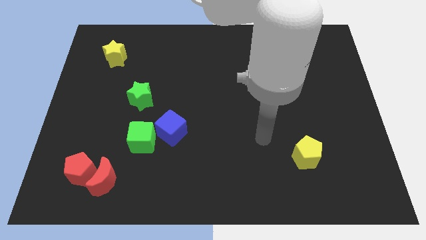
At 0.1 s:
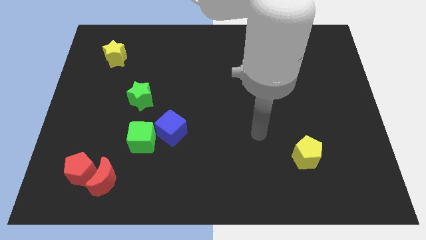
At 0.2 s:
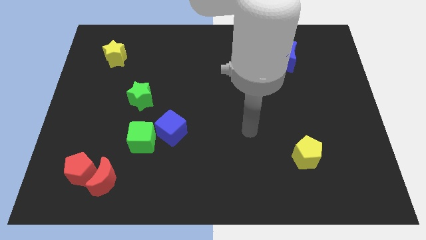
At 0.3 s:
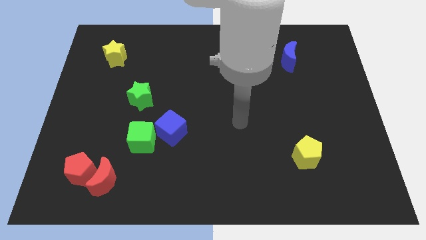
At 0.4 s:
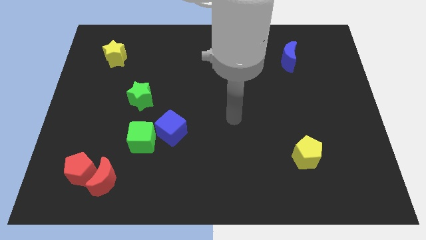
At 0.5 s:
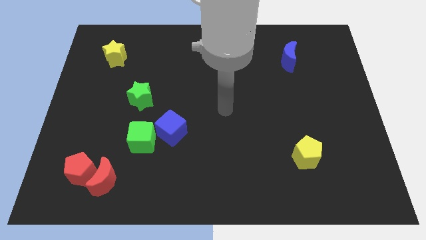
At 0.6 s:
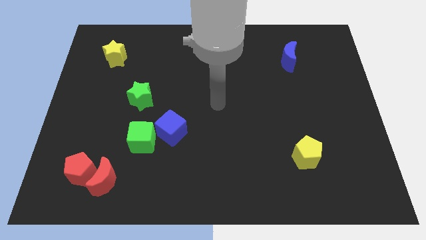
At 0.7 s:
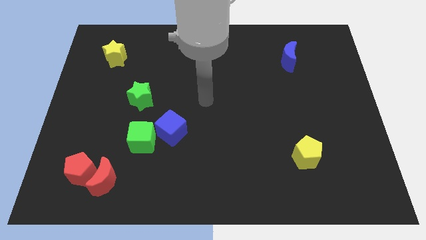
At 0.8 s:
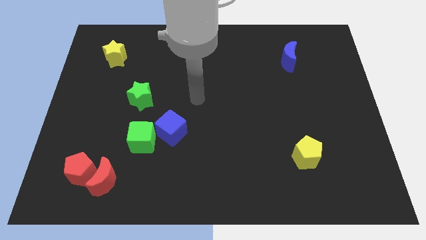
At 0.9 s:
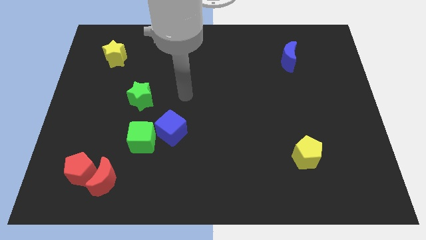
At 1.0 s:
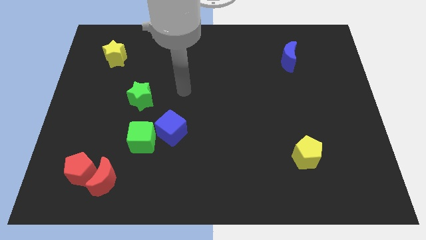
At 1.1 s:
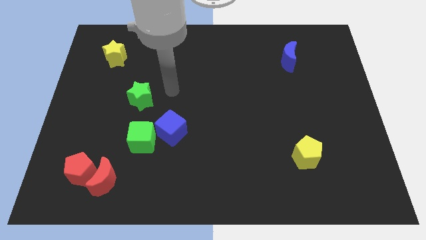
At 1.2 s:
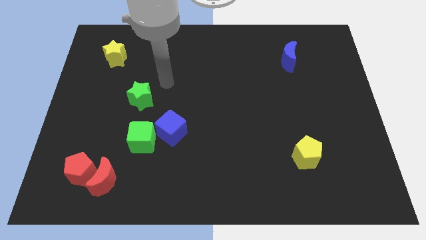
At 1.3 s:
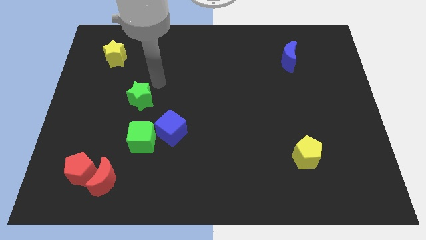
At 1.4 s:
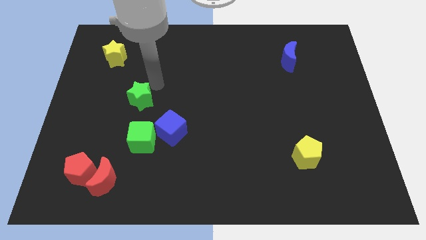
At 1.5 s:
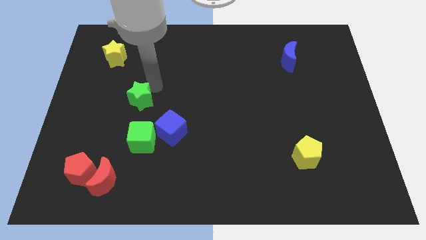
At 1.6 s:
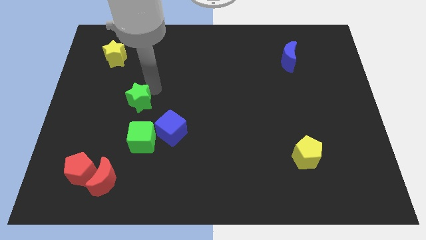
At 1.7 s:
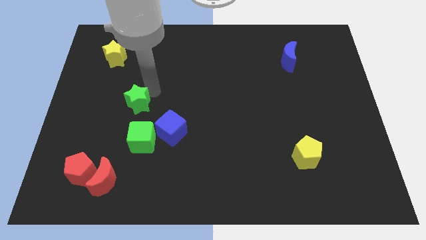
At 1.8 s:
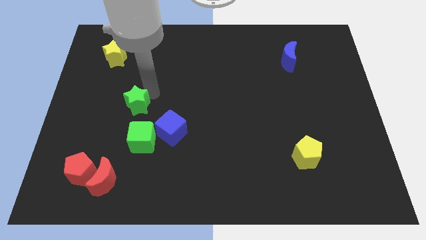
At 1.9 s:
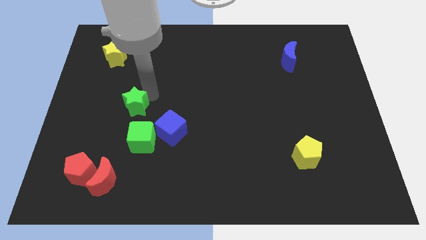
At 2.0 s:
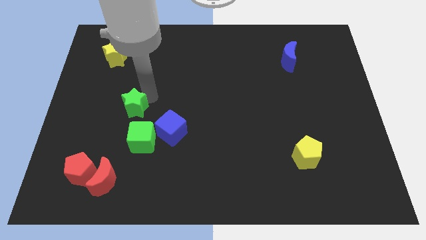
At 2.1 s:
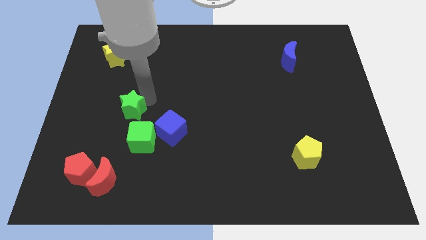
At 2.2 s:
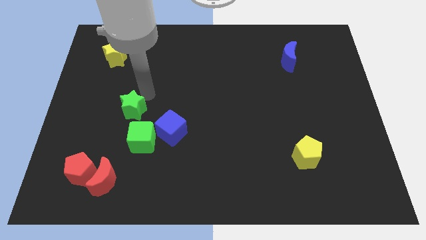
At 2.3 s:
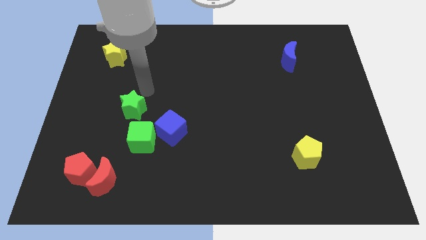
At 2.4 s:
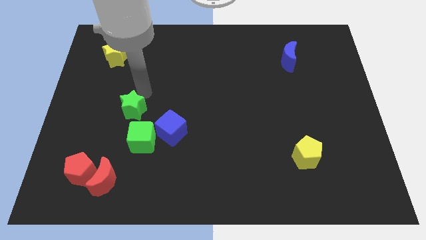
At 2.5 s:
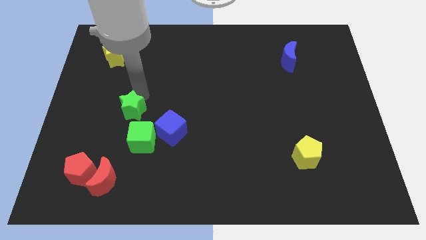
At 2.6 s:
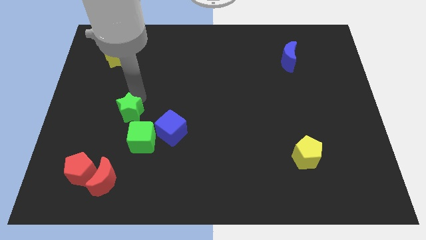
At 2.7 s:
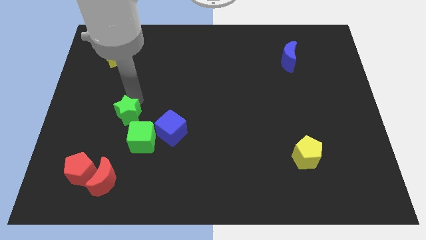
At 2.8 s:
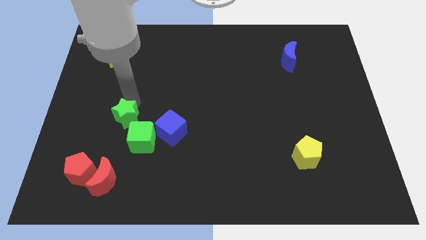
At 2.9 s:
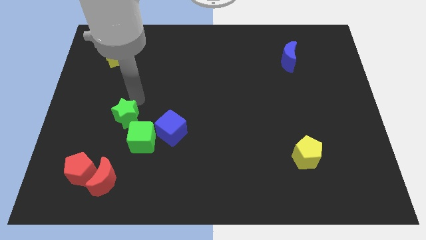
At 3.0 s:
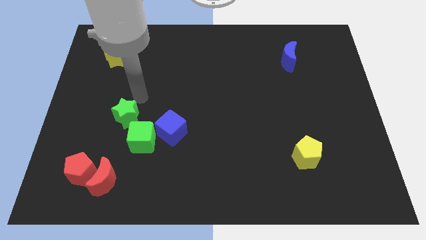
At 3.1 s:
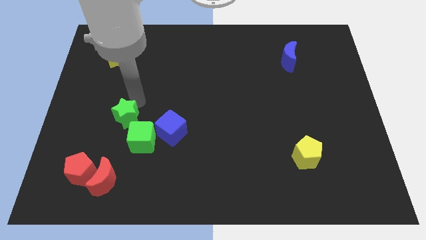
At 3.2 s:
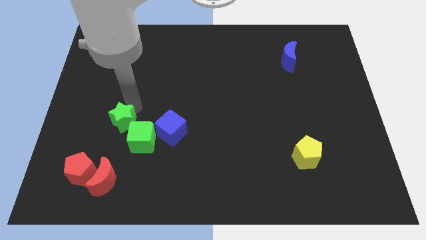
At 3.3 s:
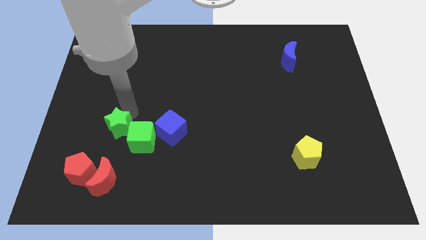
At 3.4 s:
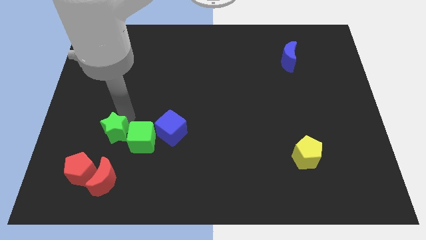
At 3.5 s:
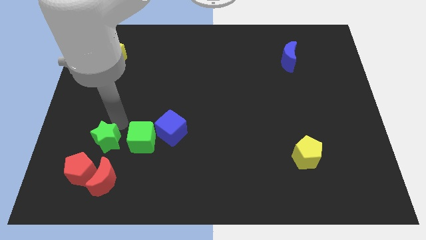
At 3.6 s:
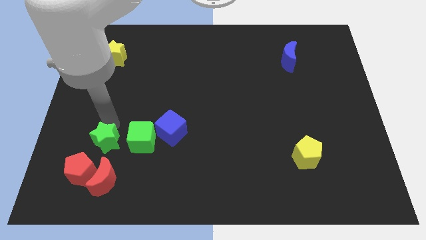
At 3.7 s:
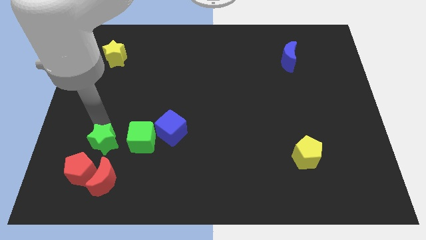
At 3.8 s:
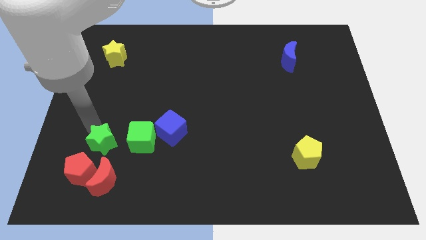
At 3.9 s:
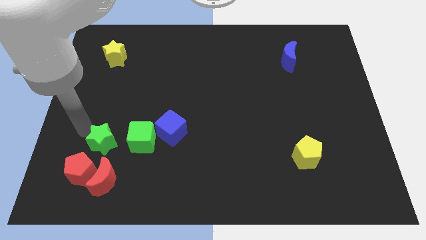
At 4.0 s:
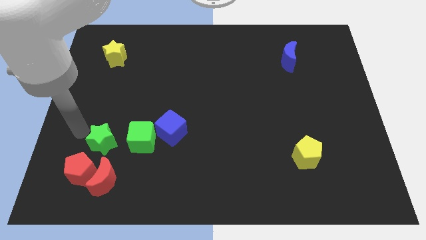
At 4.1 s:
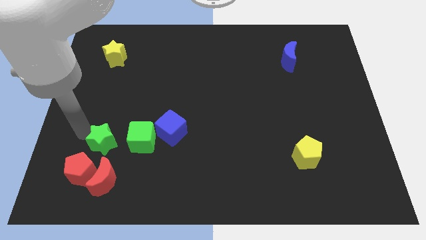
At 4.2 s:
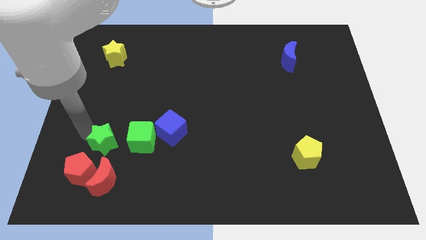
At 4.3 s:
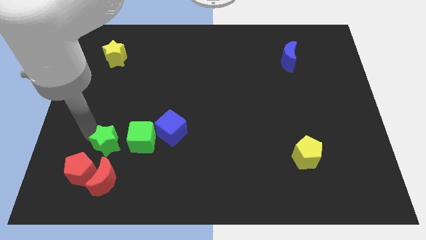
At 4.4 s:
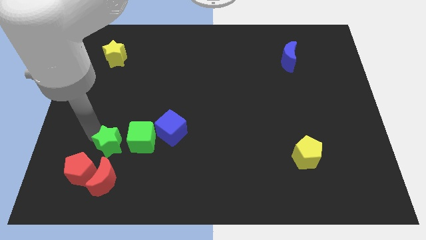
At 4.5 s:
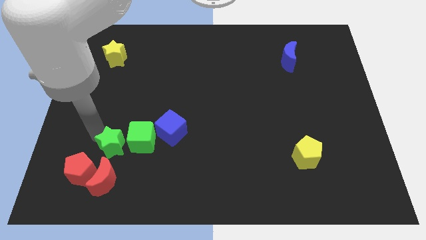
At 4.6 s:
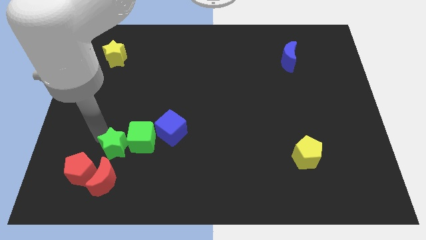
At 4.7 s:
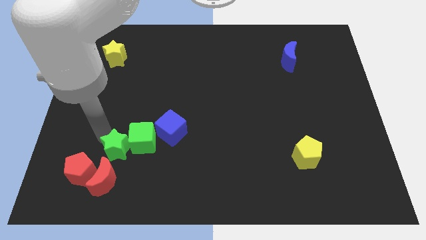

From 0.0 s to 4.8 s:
put the green star to the top right of the red moon

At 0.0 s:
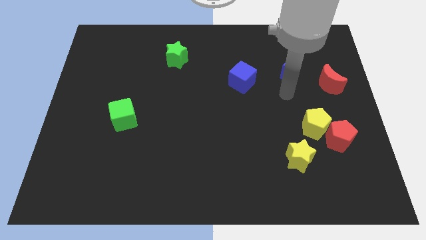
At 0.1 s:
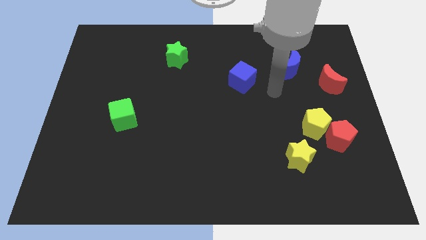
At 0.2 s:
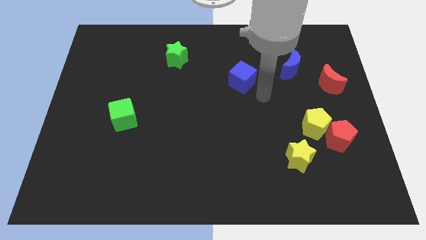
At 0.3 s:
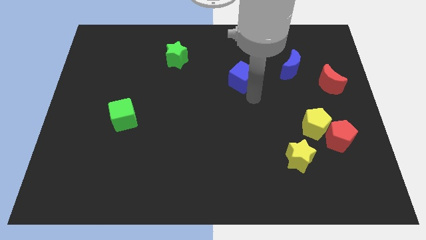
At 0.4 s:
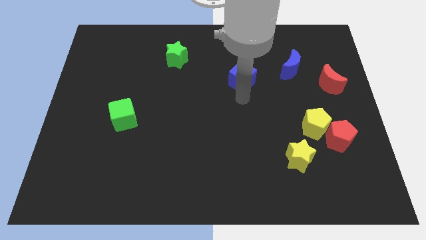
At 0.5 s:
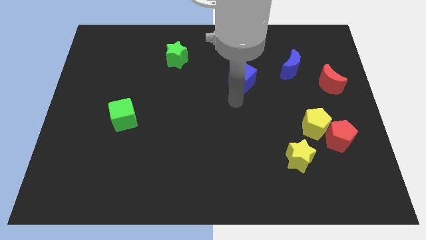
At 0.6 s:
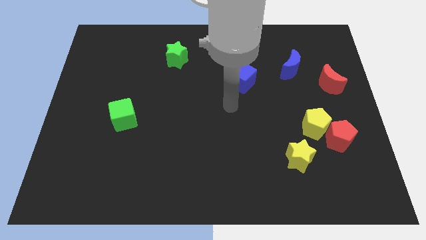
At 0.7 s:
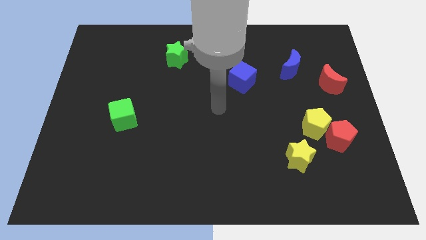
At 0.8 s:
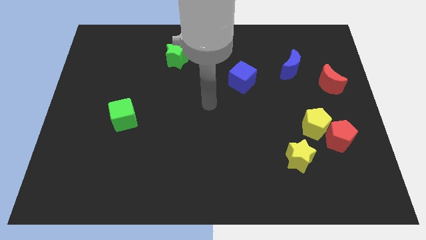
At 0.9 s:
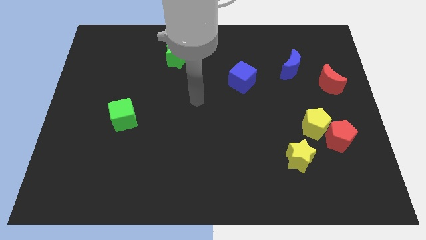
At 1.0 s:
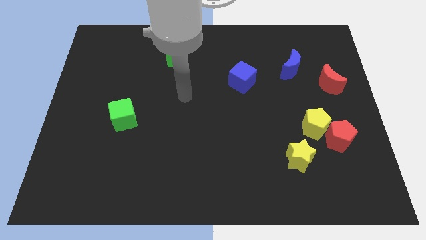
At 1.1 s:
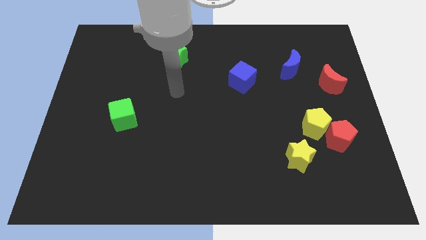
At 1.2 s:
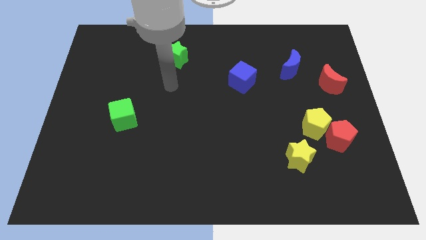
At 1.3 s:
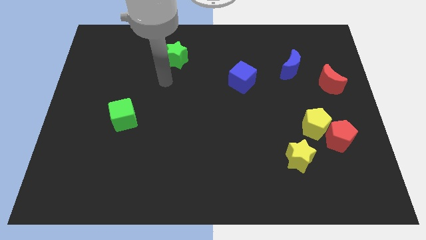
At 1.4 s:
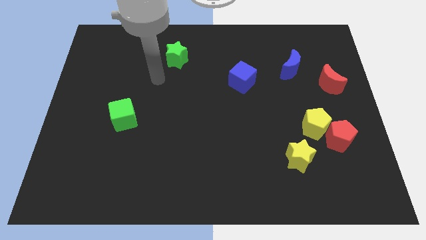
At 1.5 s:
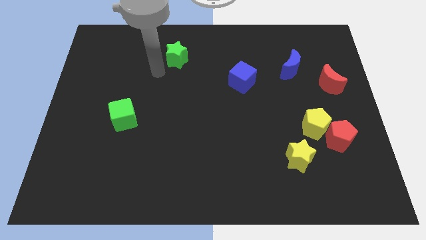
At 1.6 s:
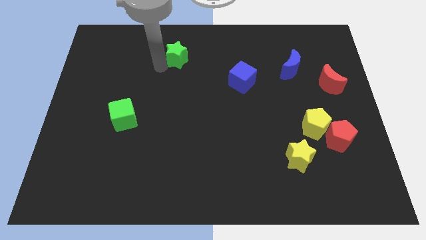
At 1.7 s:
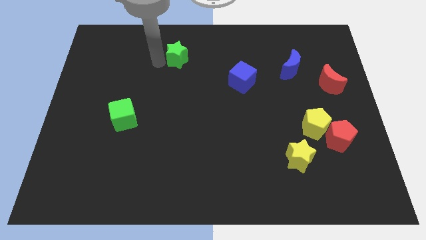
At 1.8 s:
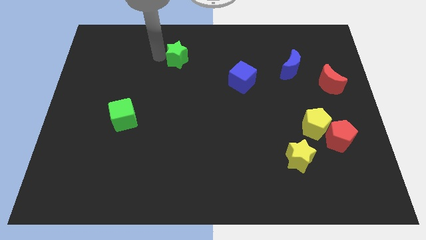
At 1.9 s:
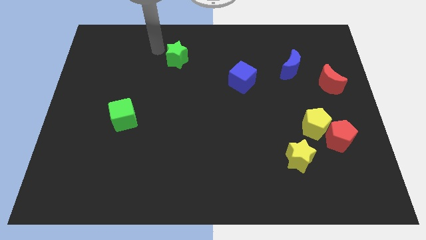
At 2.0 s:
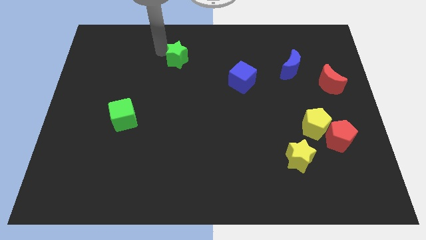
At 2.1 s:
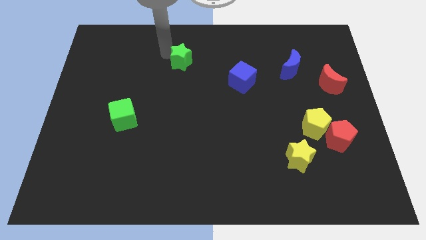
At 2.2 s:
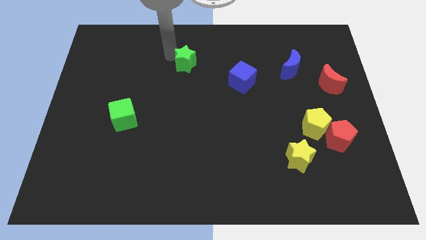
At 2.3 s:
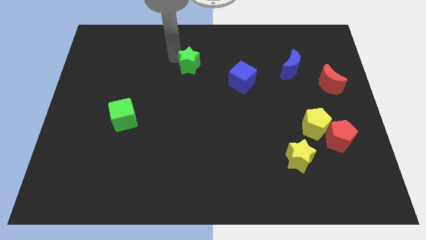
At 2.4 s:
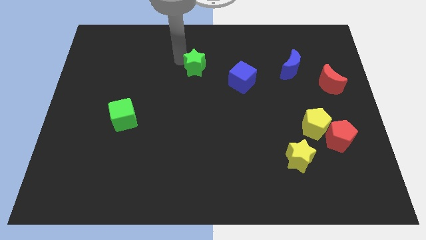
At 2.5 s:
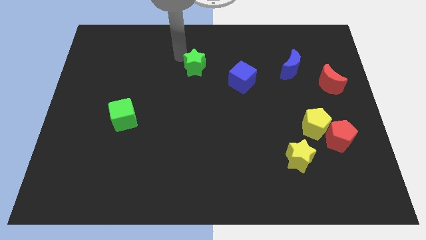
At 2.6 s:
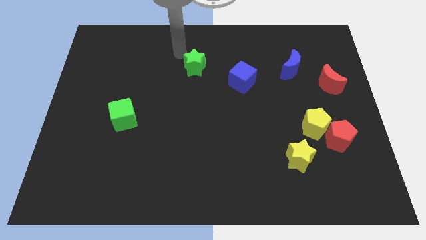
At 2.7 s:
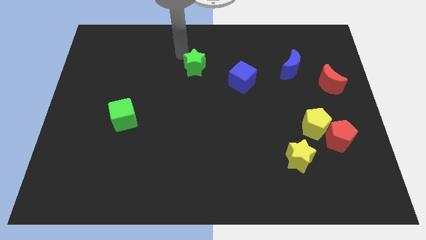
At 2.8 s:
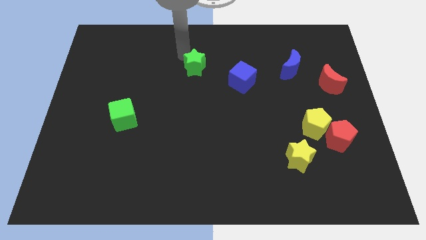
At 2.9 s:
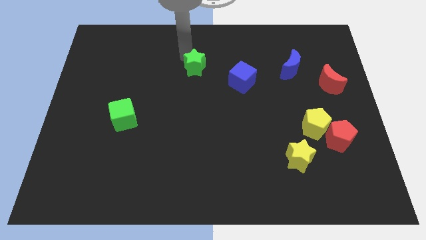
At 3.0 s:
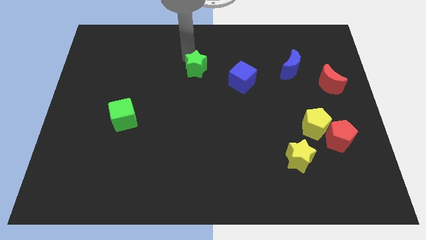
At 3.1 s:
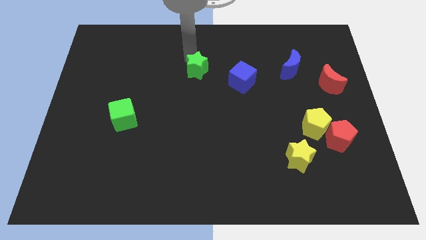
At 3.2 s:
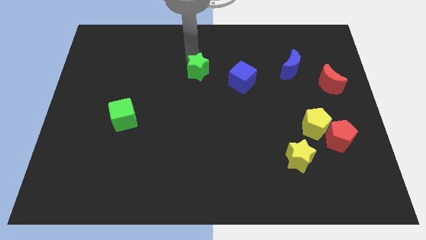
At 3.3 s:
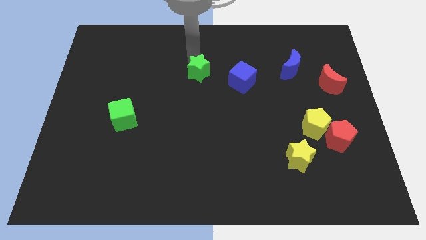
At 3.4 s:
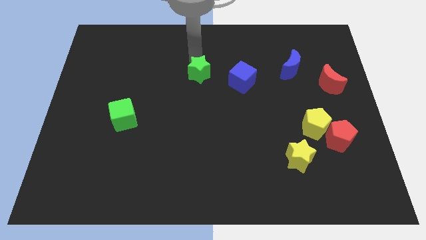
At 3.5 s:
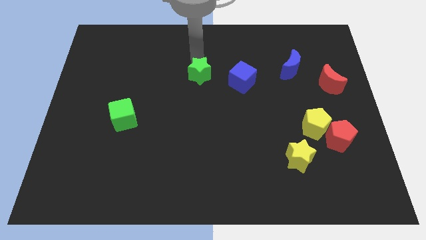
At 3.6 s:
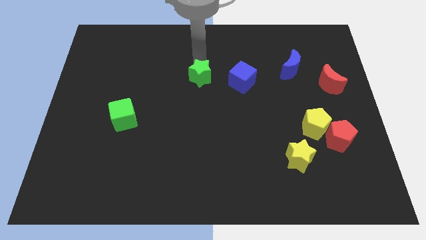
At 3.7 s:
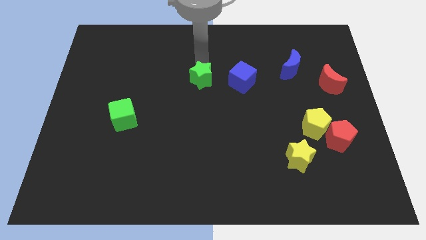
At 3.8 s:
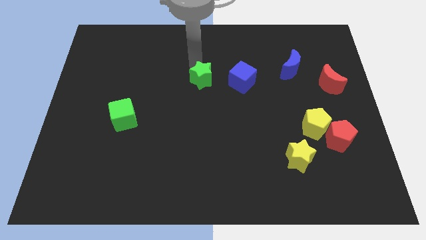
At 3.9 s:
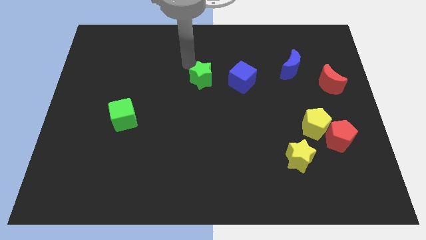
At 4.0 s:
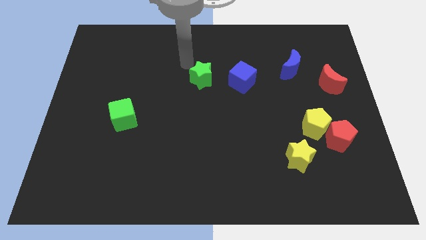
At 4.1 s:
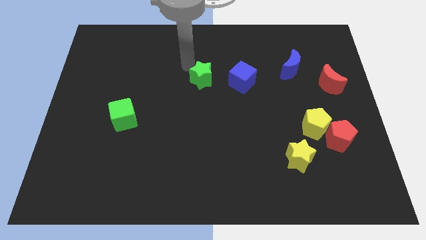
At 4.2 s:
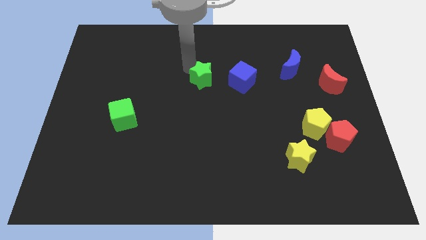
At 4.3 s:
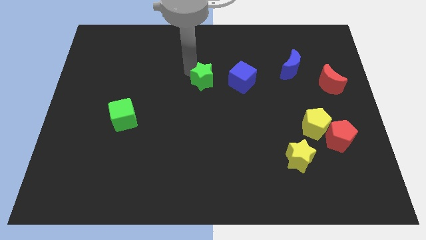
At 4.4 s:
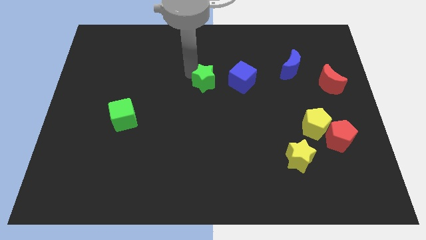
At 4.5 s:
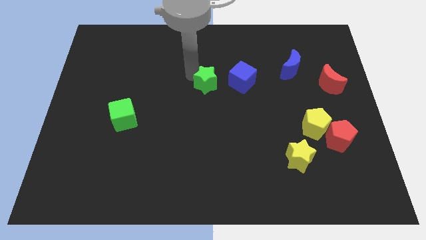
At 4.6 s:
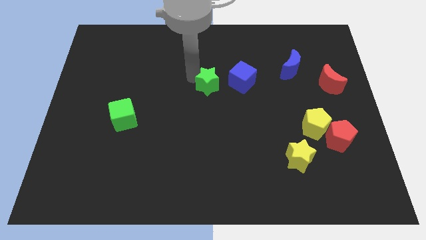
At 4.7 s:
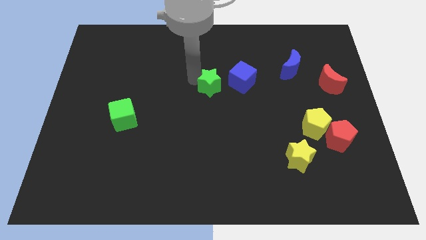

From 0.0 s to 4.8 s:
move the green star to the bottom left side of the blue cube
